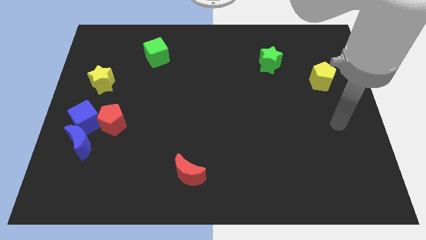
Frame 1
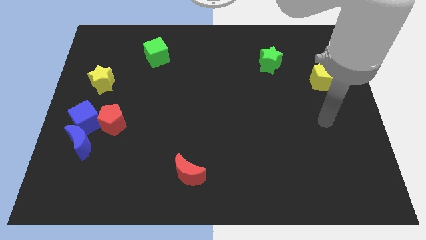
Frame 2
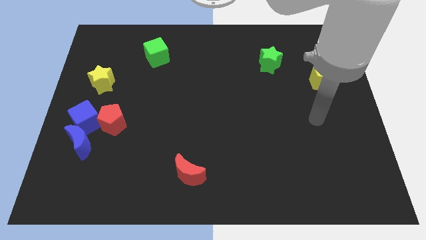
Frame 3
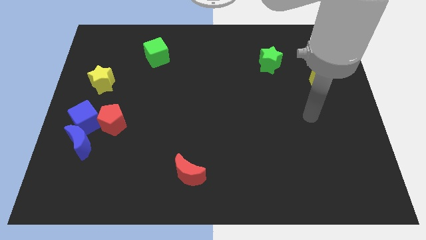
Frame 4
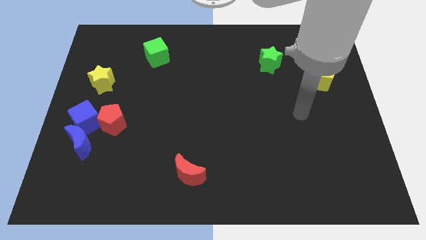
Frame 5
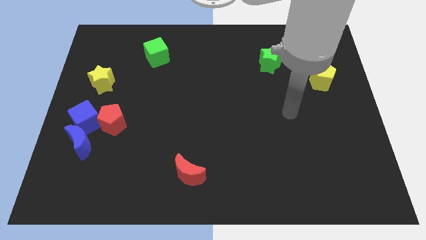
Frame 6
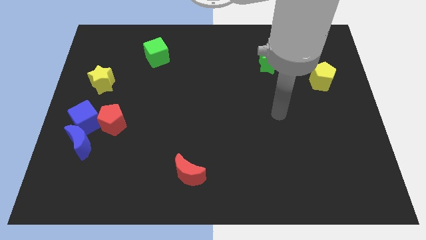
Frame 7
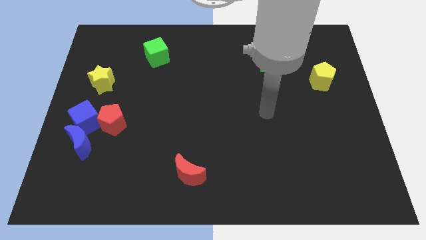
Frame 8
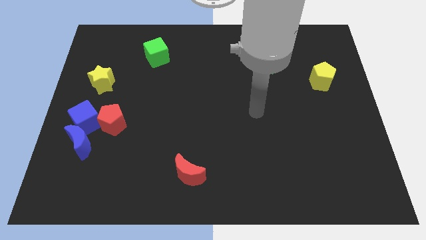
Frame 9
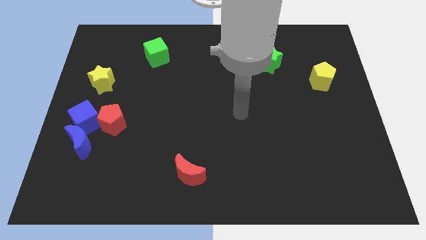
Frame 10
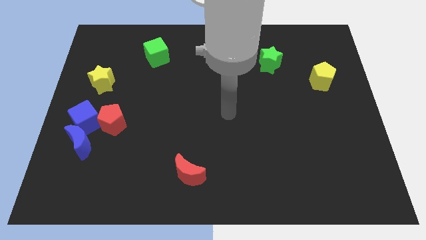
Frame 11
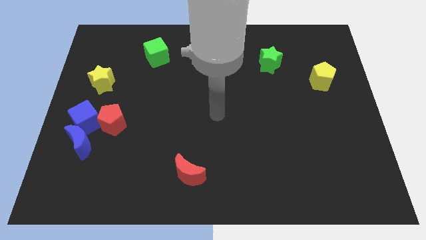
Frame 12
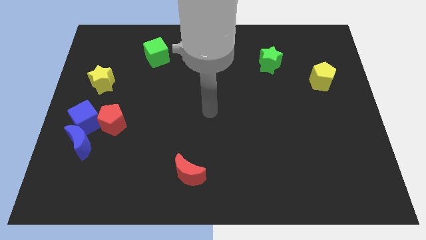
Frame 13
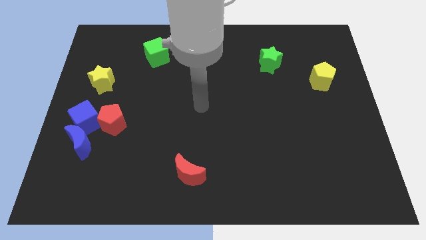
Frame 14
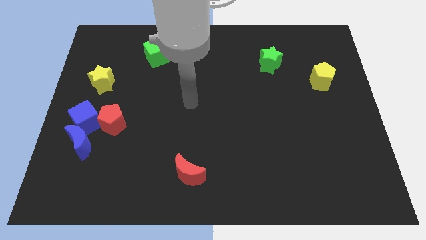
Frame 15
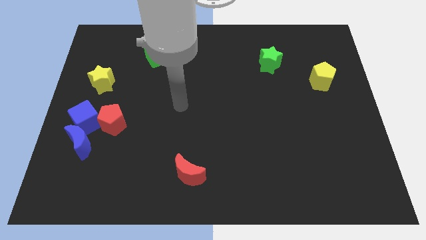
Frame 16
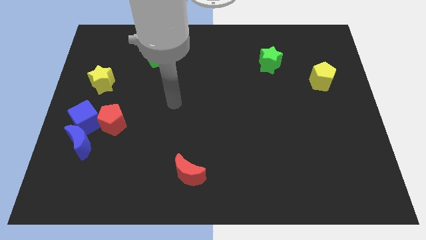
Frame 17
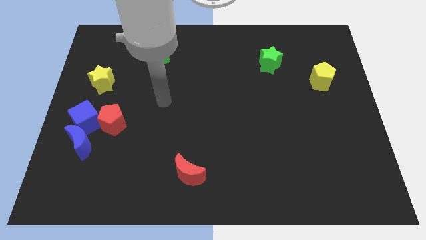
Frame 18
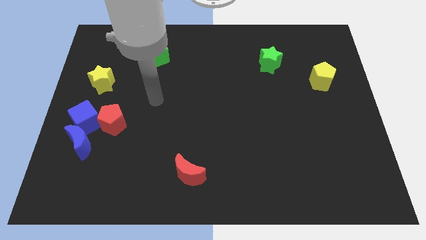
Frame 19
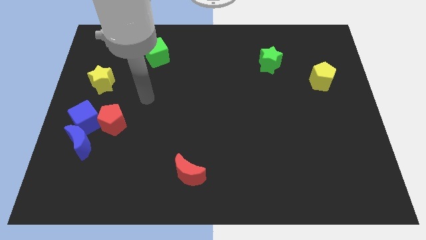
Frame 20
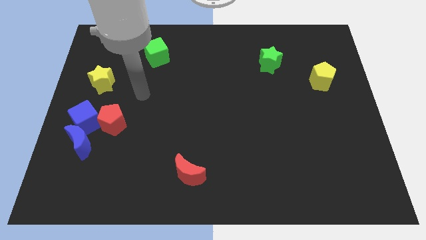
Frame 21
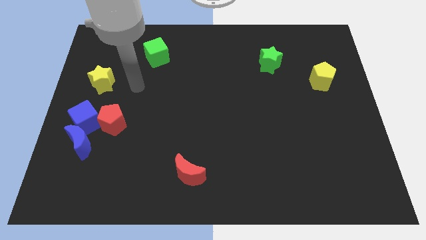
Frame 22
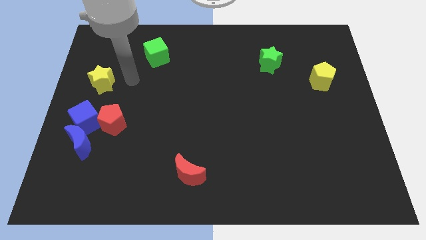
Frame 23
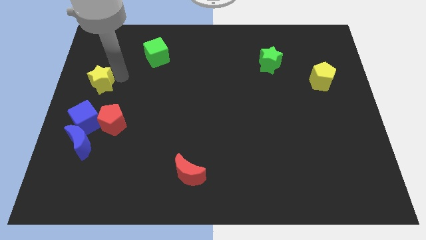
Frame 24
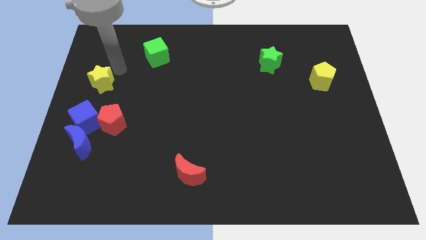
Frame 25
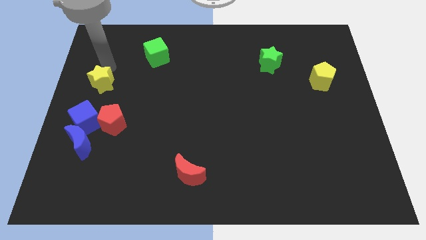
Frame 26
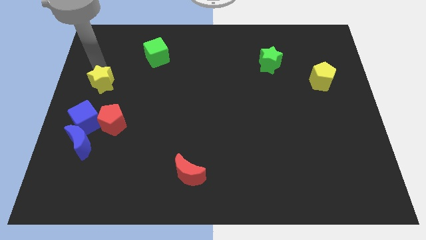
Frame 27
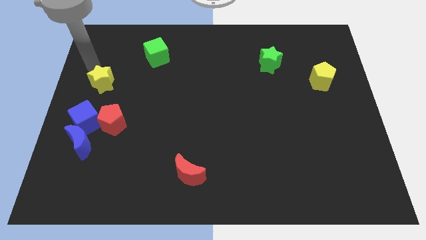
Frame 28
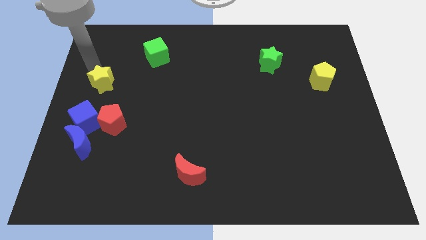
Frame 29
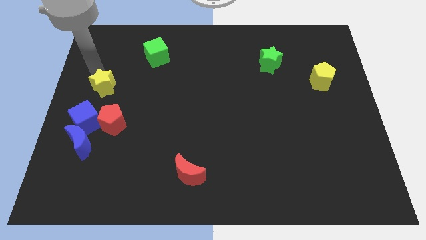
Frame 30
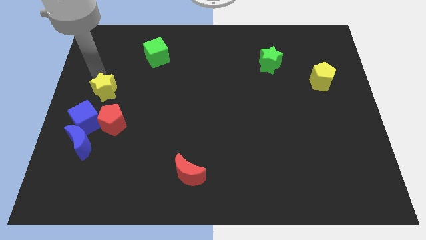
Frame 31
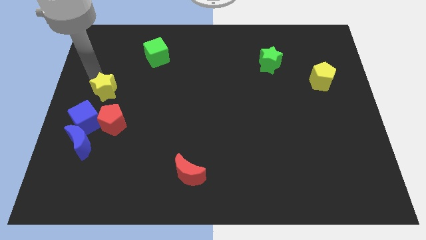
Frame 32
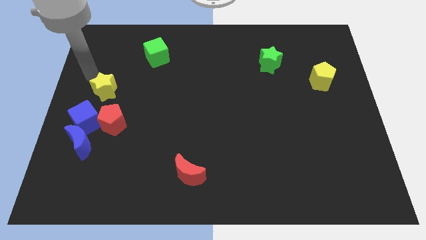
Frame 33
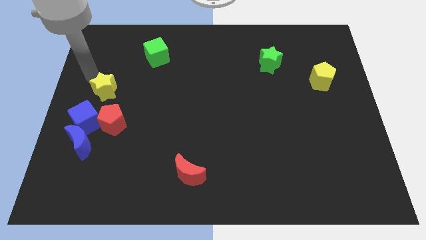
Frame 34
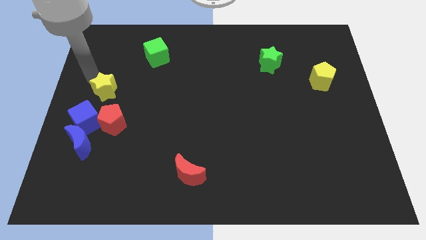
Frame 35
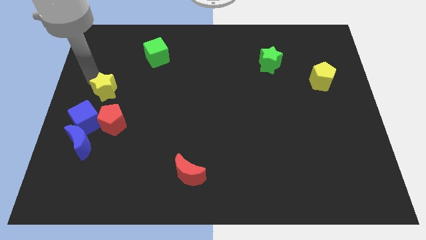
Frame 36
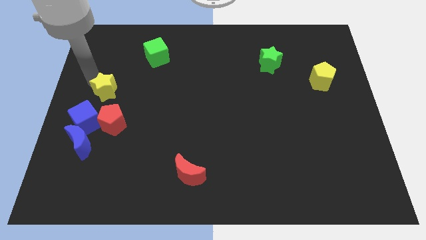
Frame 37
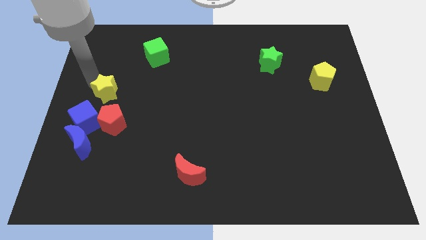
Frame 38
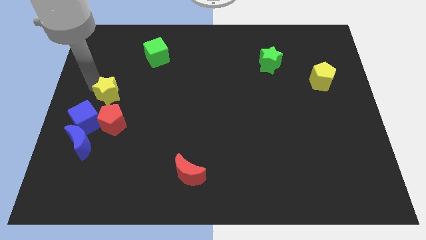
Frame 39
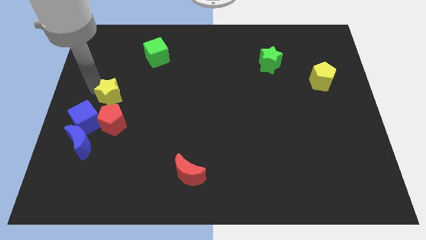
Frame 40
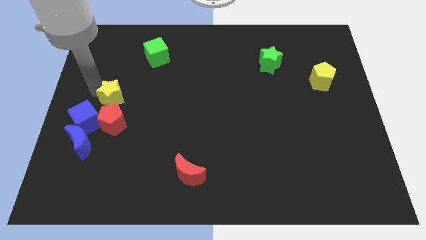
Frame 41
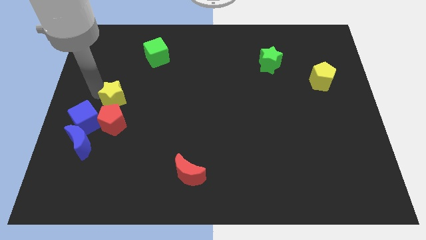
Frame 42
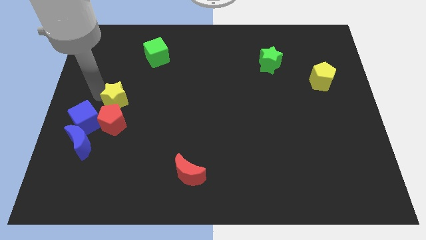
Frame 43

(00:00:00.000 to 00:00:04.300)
move the yellow star diagonally downwards and to the right slightly

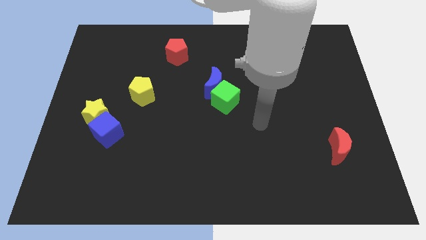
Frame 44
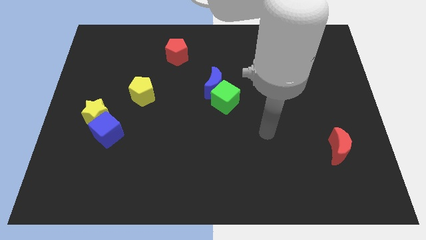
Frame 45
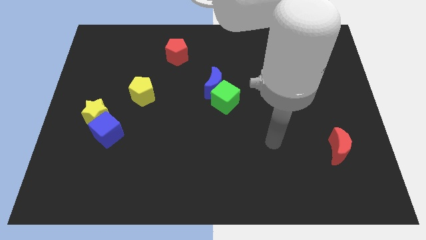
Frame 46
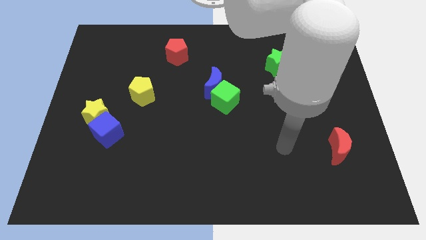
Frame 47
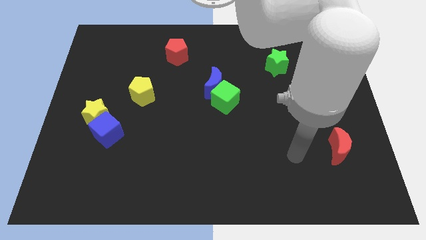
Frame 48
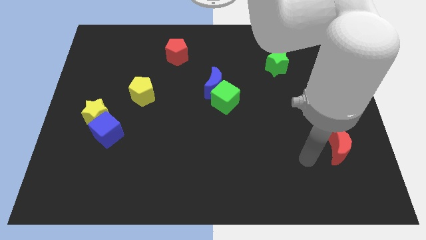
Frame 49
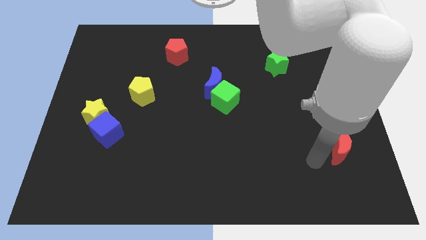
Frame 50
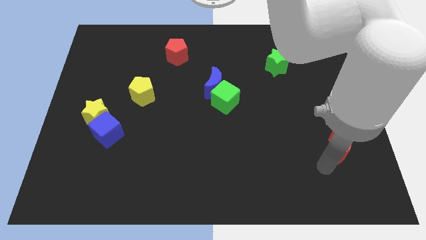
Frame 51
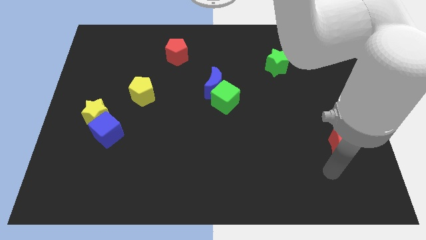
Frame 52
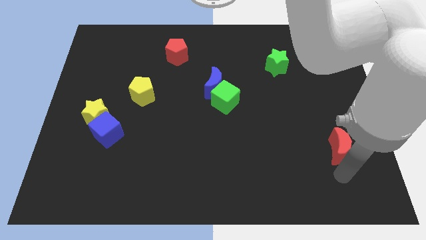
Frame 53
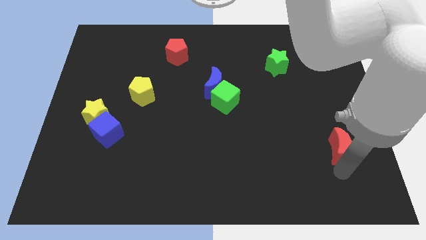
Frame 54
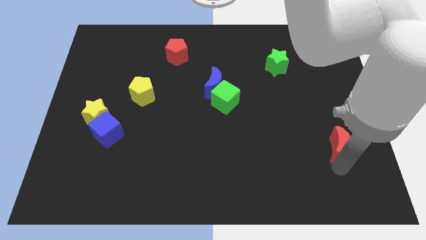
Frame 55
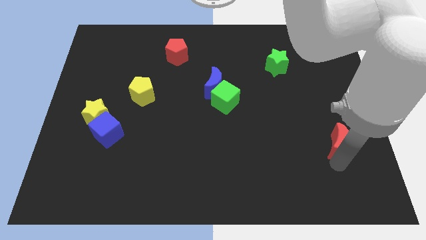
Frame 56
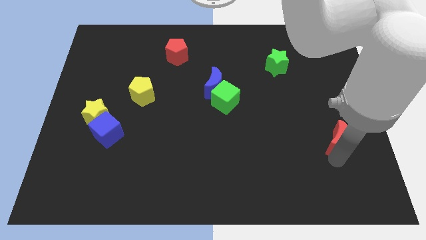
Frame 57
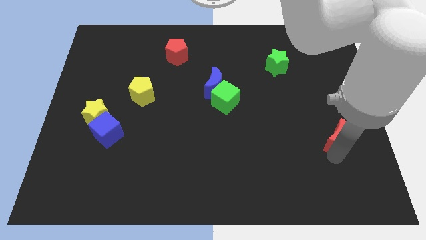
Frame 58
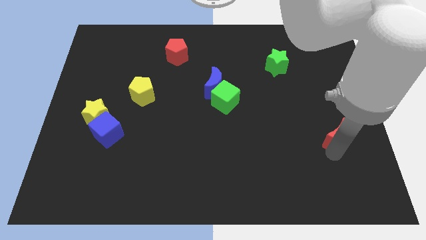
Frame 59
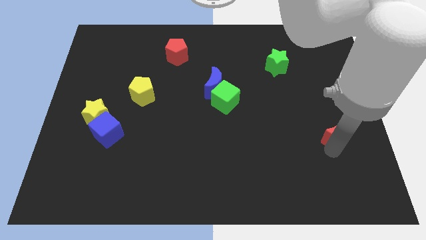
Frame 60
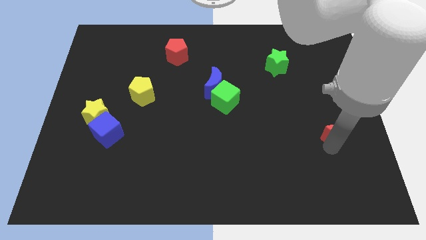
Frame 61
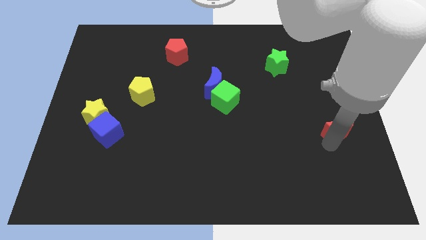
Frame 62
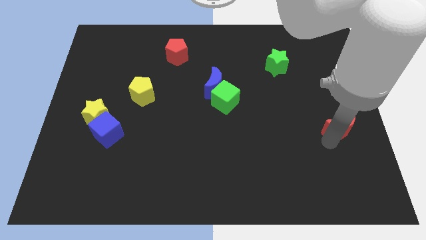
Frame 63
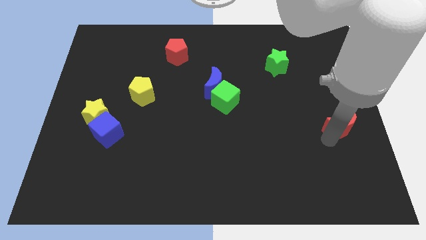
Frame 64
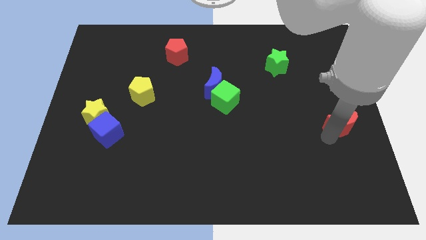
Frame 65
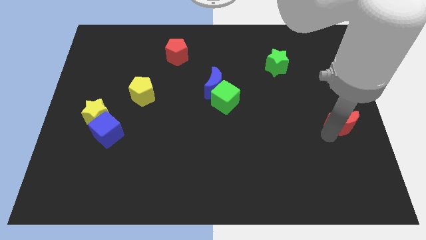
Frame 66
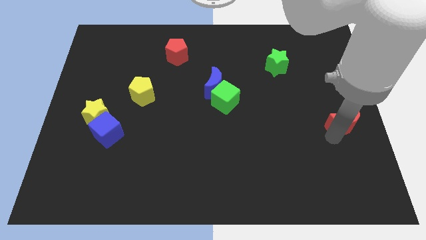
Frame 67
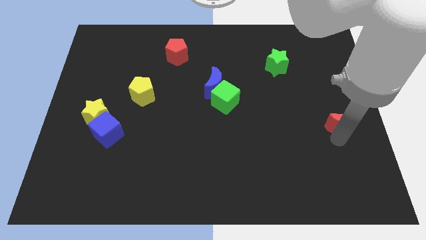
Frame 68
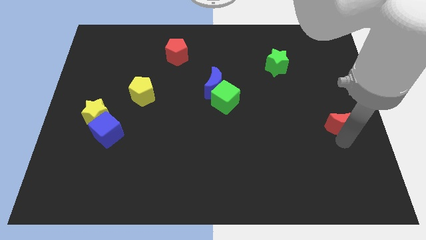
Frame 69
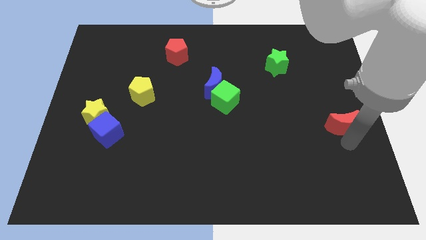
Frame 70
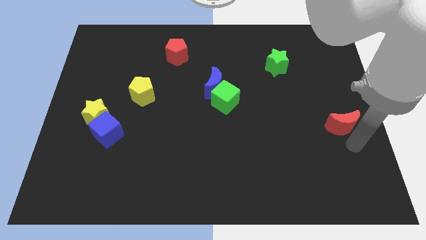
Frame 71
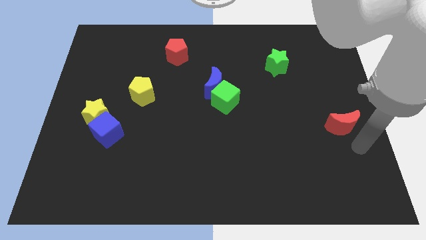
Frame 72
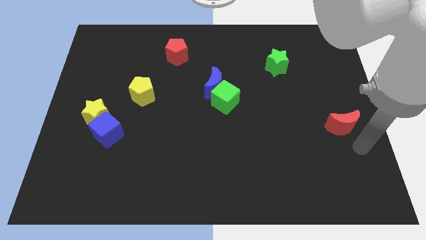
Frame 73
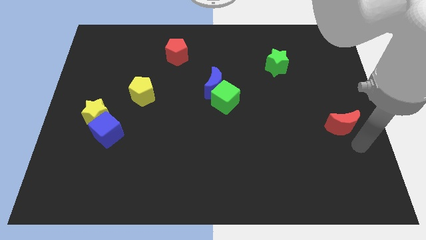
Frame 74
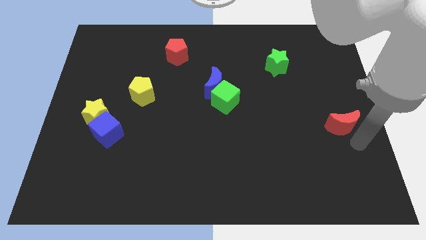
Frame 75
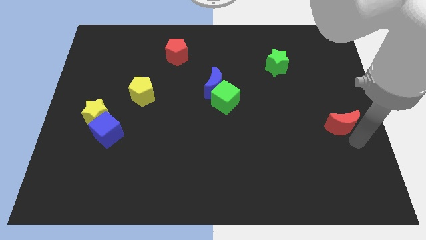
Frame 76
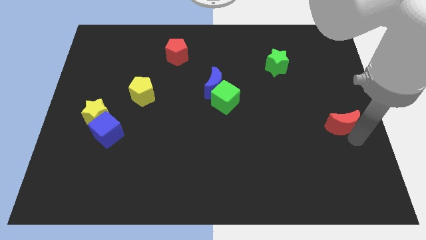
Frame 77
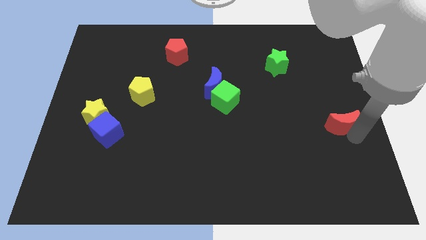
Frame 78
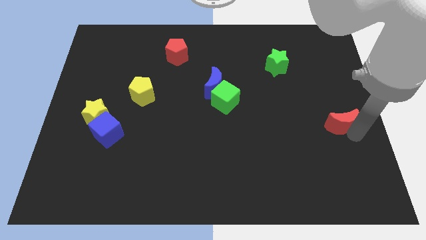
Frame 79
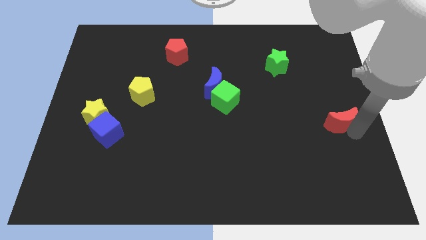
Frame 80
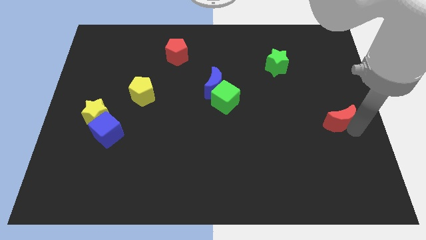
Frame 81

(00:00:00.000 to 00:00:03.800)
slide the red moon a little bit up

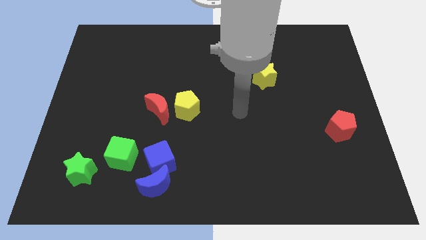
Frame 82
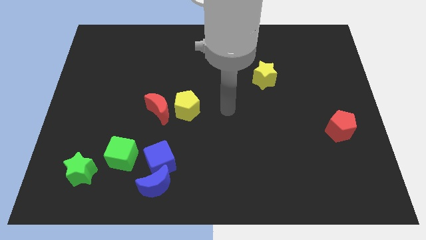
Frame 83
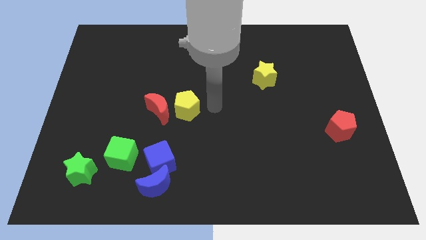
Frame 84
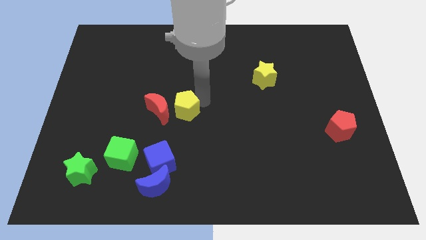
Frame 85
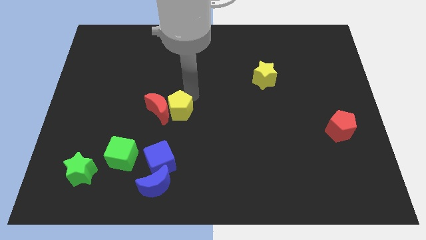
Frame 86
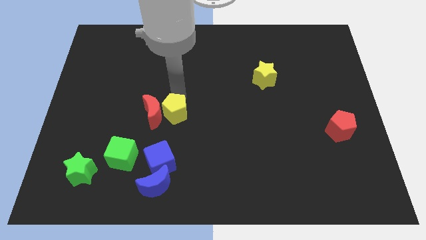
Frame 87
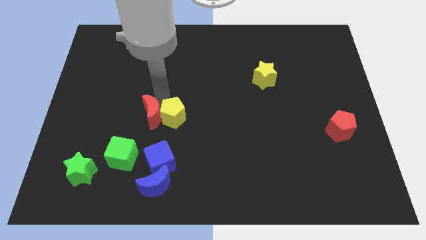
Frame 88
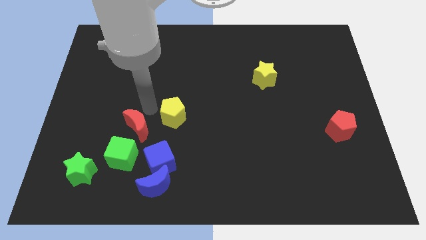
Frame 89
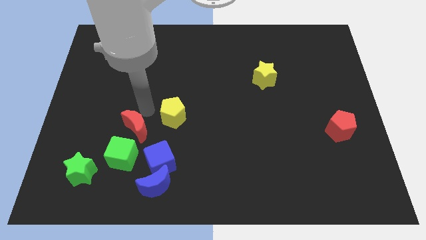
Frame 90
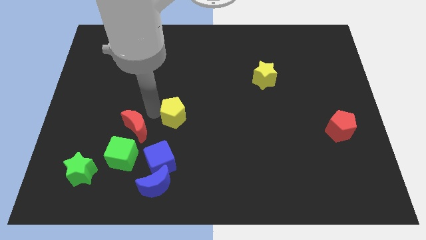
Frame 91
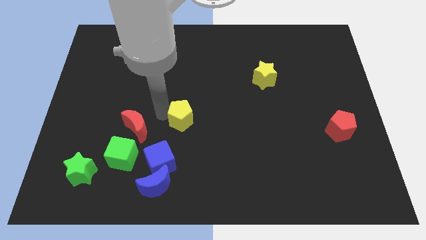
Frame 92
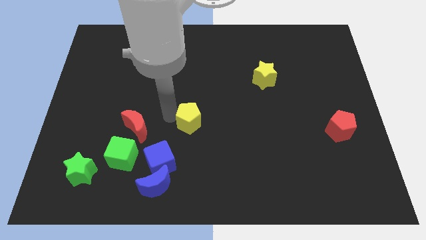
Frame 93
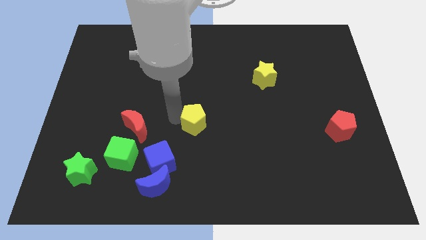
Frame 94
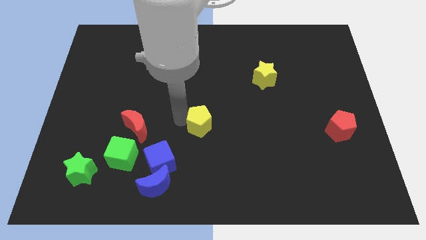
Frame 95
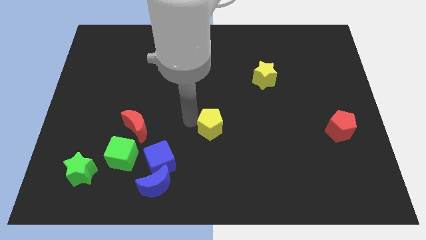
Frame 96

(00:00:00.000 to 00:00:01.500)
slightly push the yellow pentagon down and to the right
